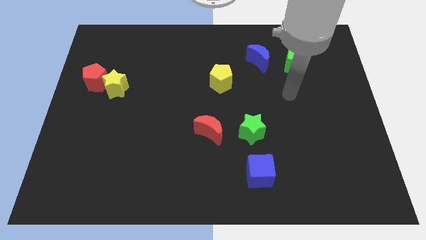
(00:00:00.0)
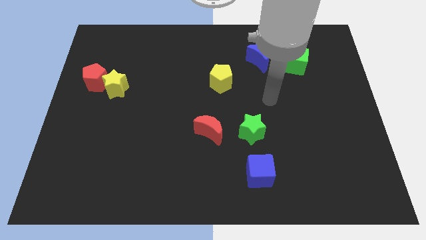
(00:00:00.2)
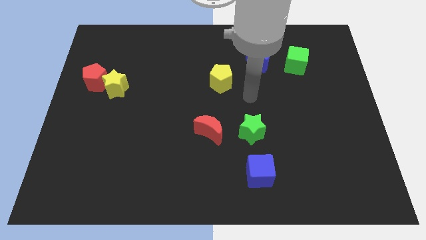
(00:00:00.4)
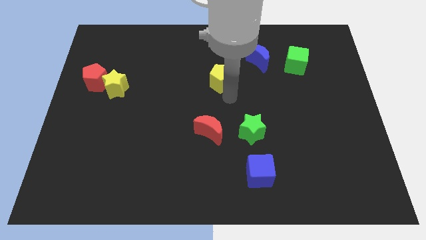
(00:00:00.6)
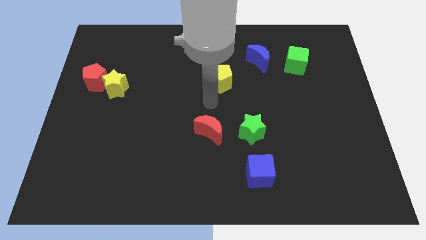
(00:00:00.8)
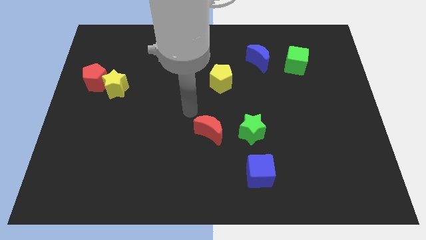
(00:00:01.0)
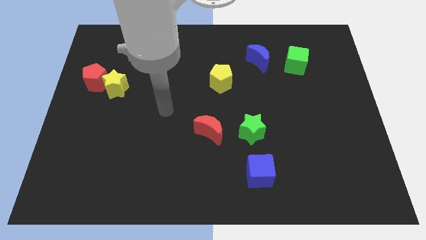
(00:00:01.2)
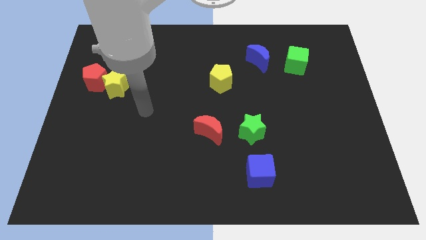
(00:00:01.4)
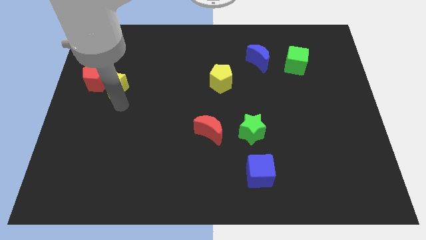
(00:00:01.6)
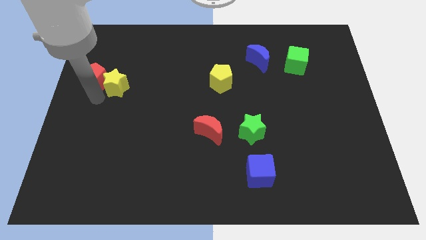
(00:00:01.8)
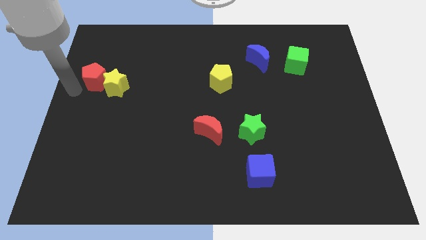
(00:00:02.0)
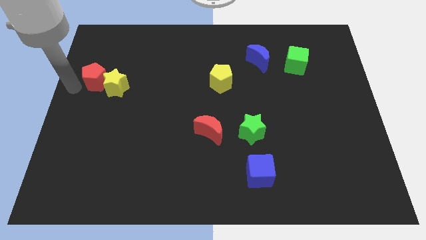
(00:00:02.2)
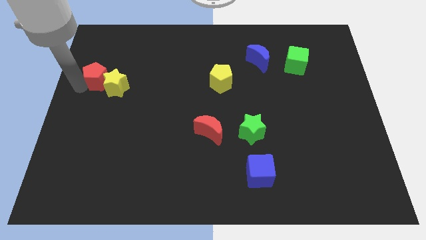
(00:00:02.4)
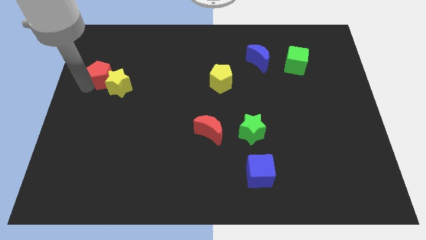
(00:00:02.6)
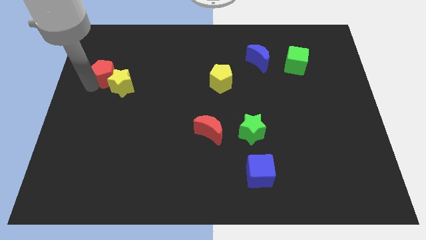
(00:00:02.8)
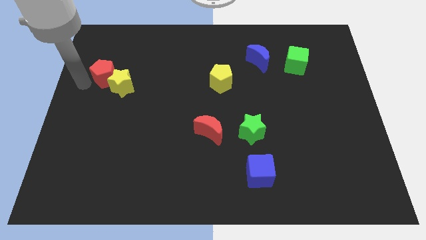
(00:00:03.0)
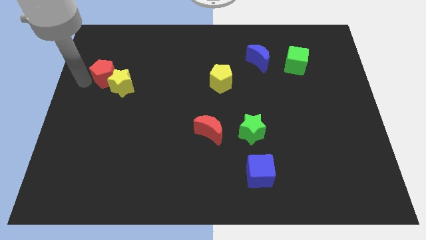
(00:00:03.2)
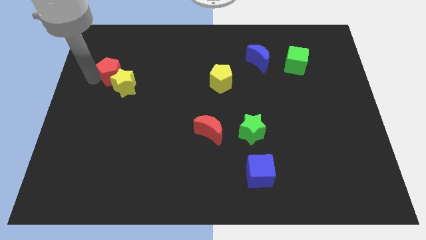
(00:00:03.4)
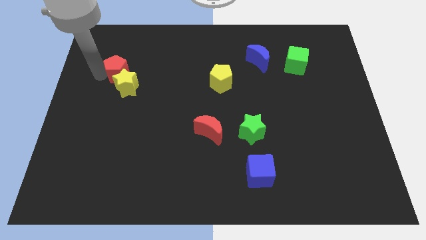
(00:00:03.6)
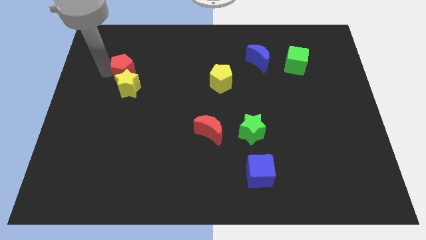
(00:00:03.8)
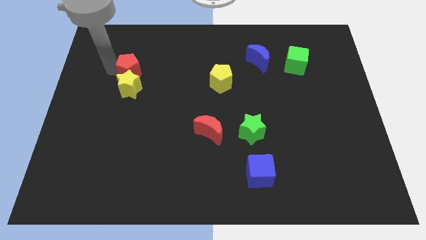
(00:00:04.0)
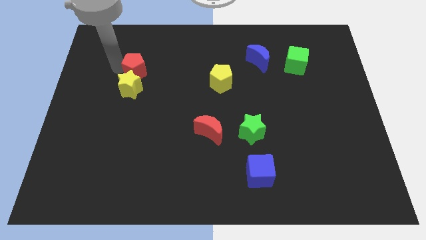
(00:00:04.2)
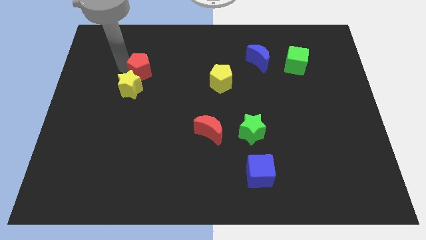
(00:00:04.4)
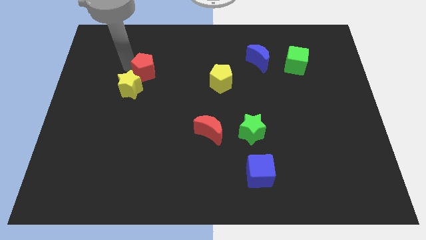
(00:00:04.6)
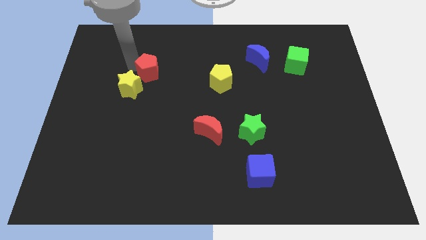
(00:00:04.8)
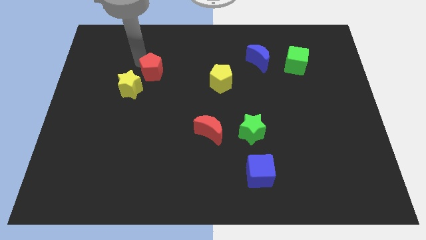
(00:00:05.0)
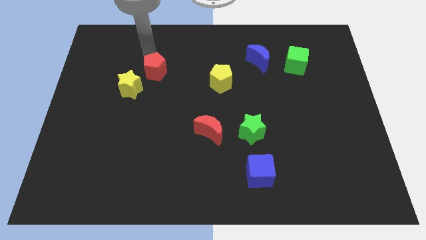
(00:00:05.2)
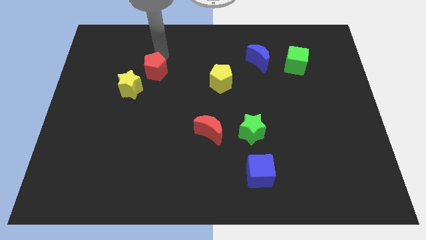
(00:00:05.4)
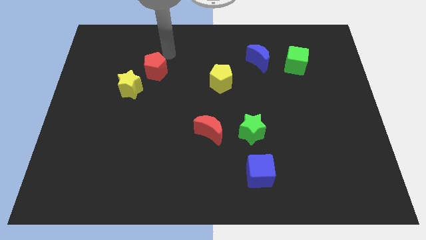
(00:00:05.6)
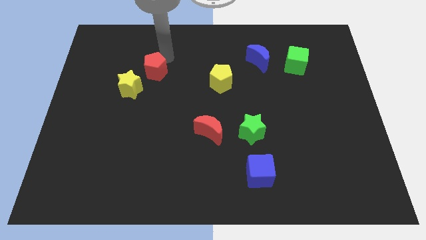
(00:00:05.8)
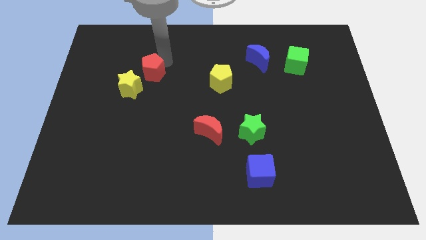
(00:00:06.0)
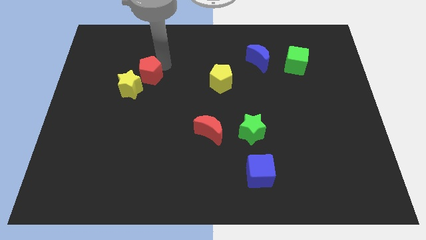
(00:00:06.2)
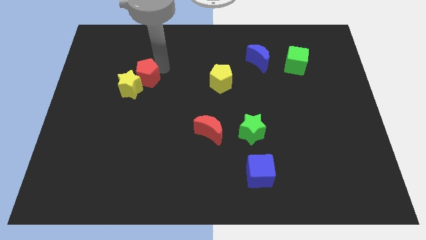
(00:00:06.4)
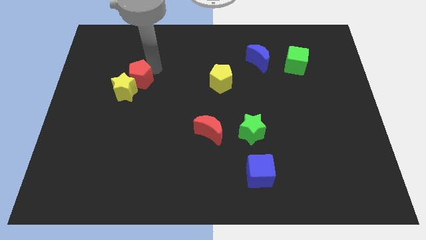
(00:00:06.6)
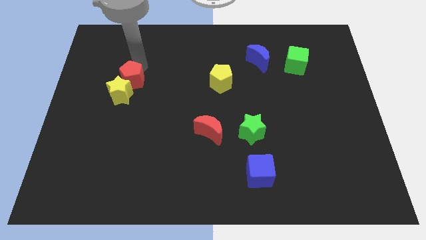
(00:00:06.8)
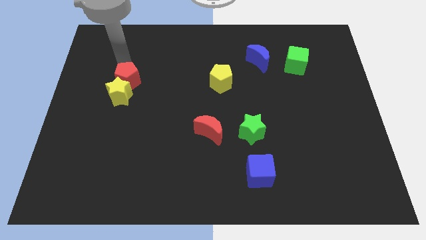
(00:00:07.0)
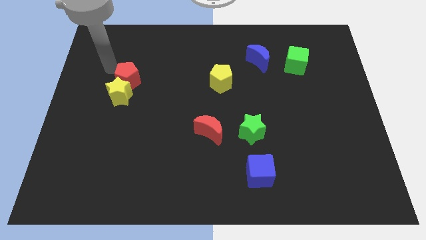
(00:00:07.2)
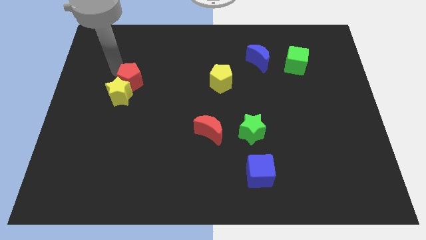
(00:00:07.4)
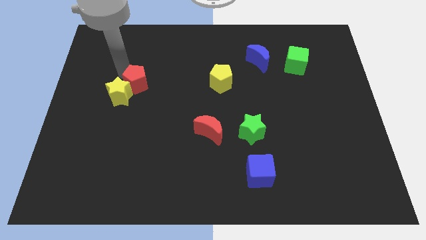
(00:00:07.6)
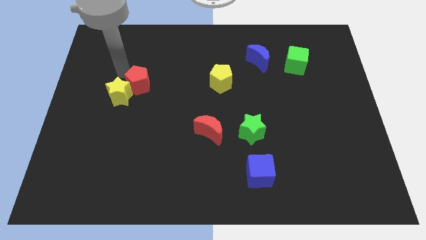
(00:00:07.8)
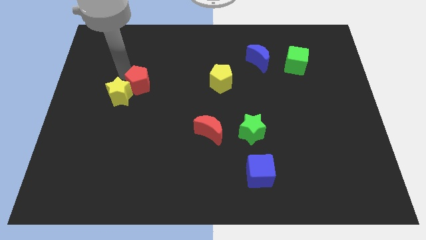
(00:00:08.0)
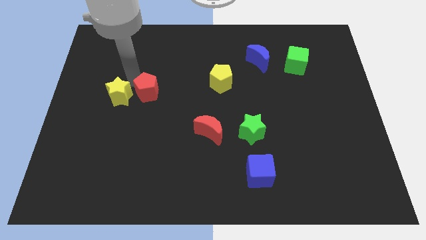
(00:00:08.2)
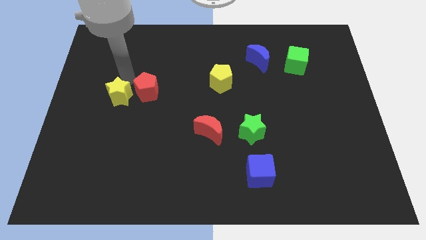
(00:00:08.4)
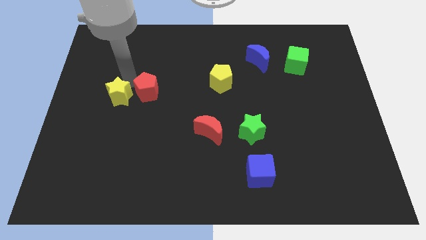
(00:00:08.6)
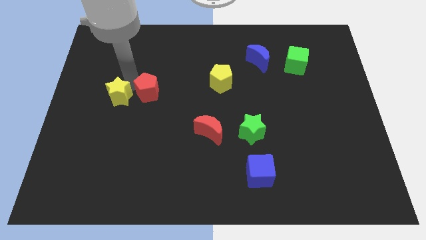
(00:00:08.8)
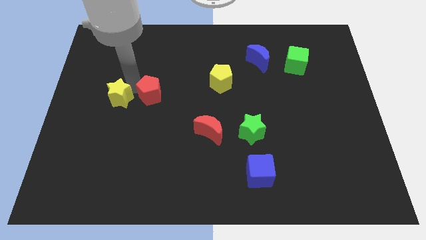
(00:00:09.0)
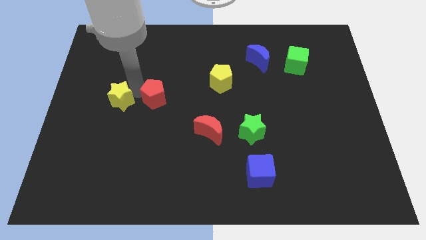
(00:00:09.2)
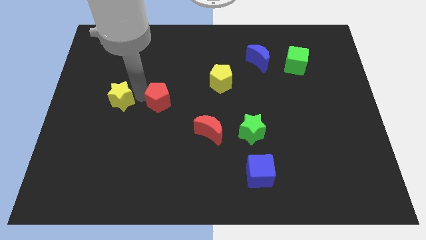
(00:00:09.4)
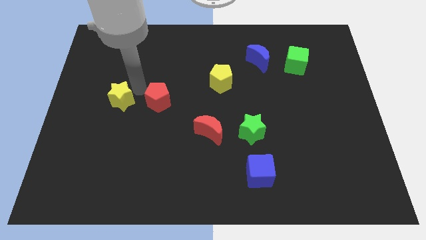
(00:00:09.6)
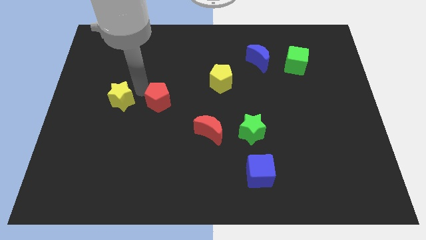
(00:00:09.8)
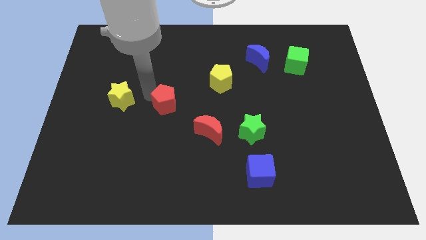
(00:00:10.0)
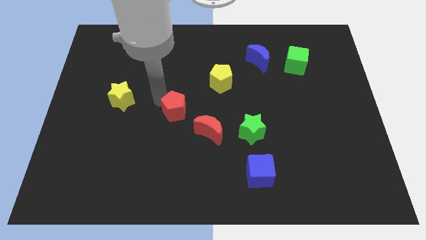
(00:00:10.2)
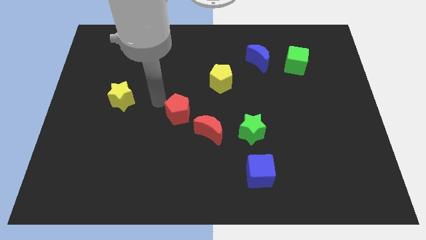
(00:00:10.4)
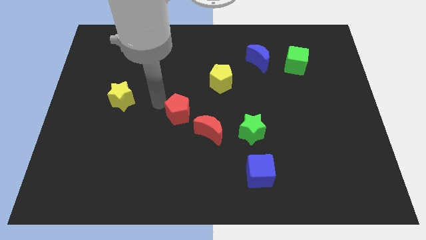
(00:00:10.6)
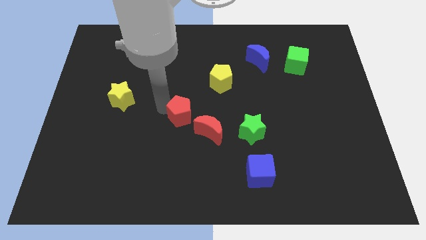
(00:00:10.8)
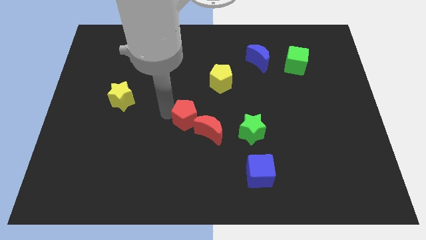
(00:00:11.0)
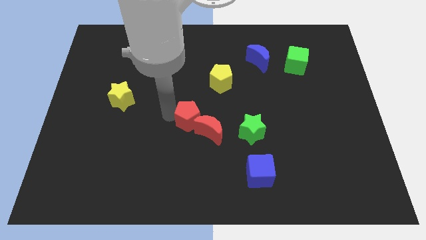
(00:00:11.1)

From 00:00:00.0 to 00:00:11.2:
move the red pentagon towards the red moon

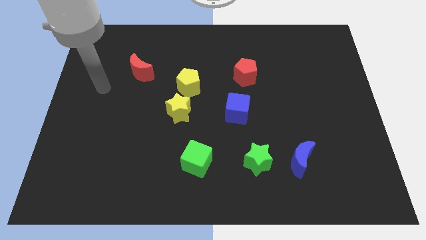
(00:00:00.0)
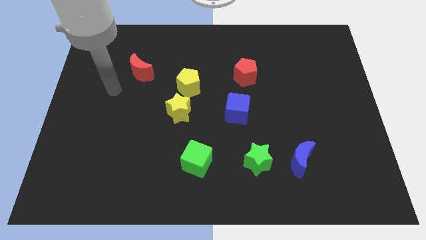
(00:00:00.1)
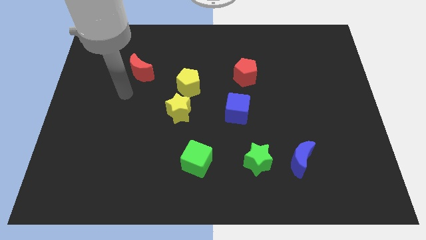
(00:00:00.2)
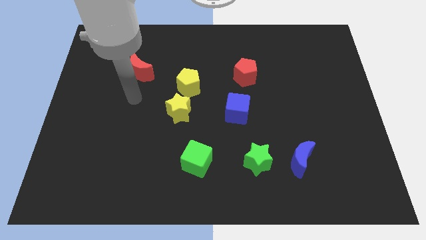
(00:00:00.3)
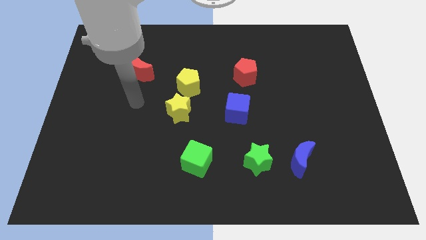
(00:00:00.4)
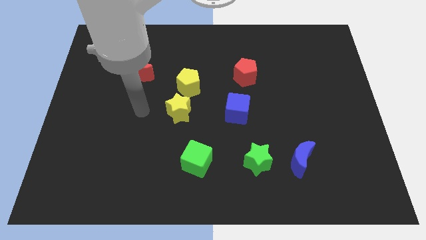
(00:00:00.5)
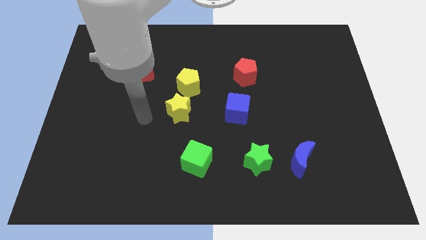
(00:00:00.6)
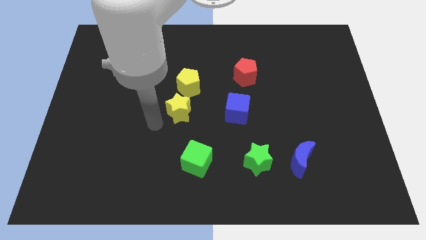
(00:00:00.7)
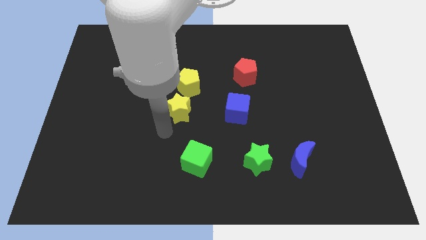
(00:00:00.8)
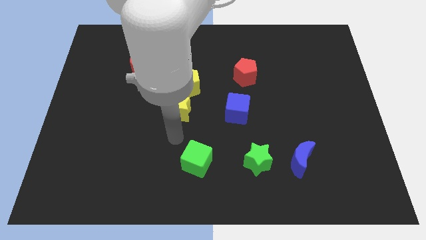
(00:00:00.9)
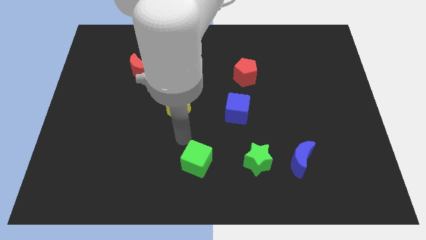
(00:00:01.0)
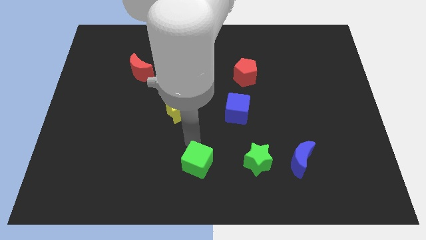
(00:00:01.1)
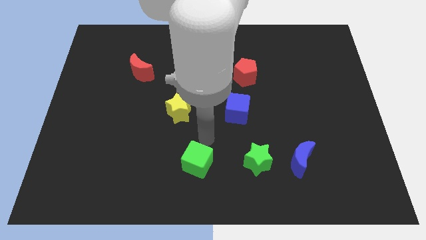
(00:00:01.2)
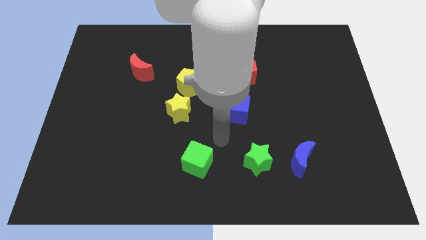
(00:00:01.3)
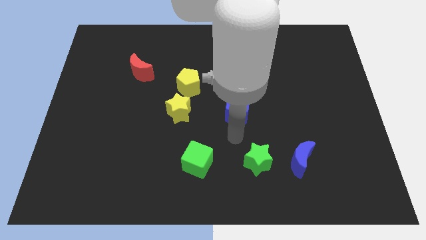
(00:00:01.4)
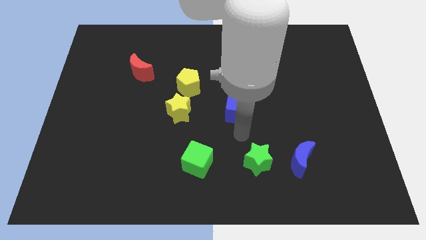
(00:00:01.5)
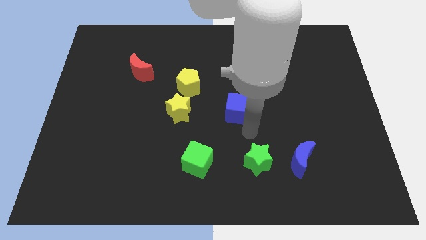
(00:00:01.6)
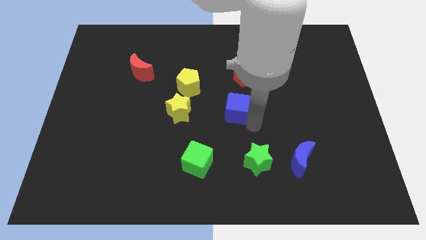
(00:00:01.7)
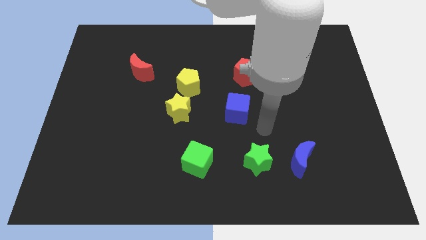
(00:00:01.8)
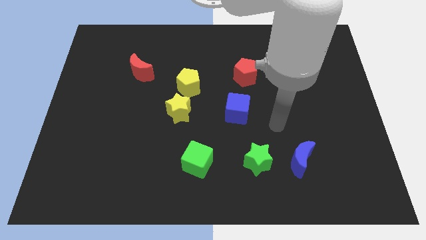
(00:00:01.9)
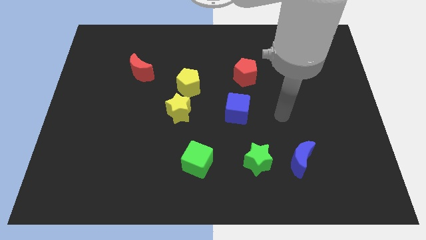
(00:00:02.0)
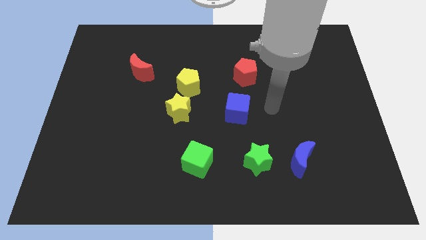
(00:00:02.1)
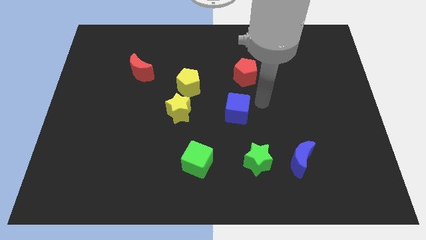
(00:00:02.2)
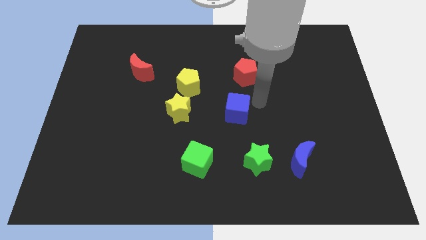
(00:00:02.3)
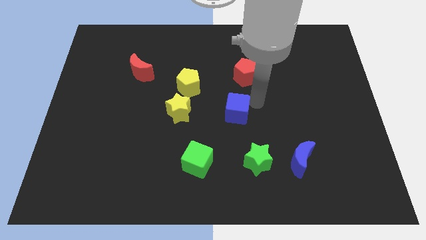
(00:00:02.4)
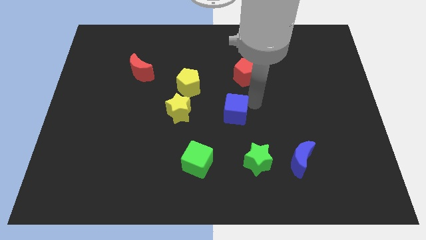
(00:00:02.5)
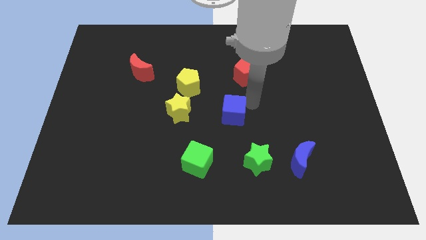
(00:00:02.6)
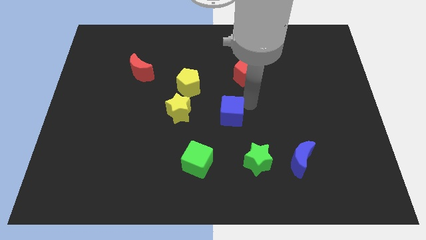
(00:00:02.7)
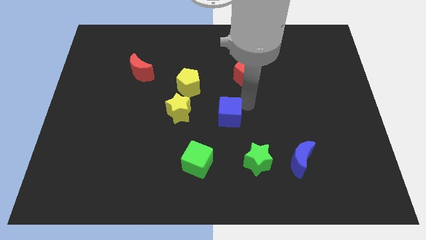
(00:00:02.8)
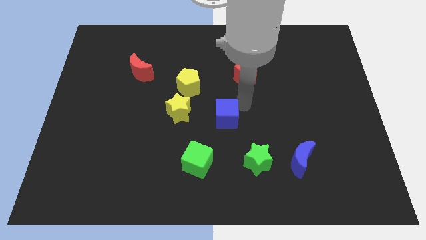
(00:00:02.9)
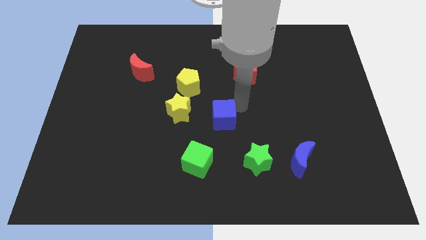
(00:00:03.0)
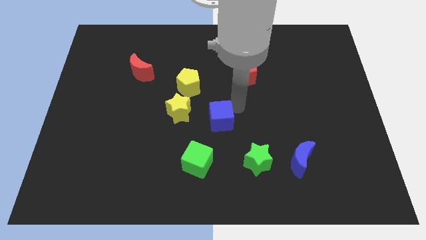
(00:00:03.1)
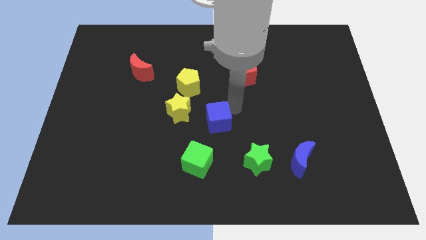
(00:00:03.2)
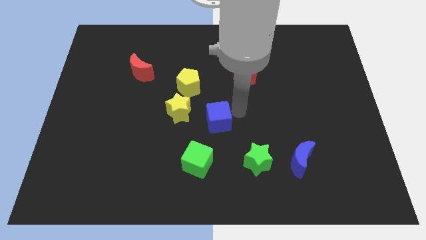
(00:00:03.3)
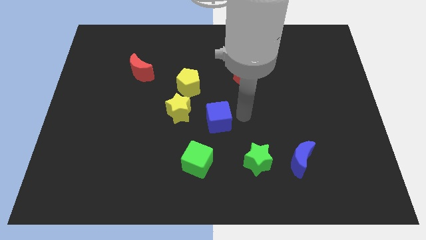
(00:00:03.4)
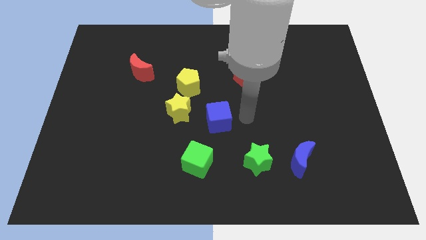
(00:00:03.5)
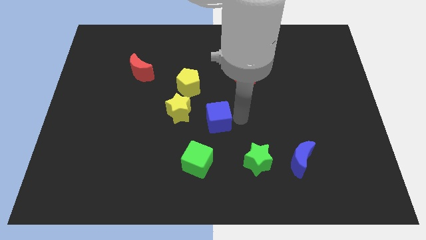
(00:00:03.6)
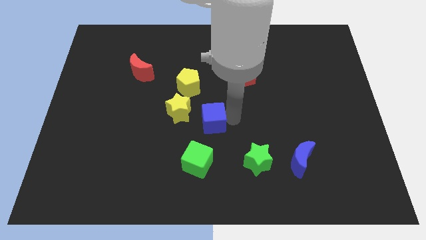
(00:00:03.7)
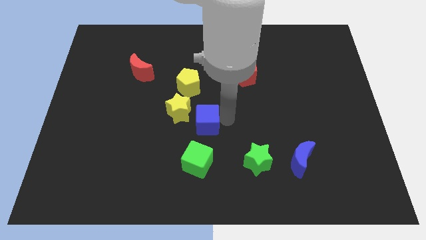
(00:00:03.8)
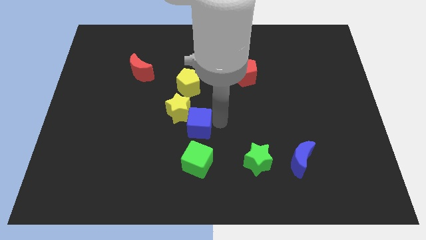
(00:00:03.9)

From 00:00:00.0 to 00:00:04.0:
put the blue cube towards the yellow star
